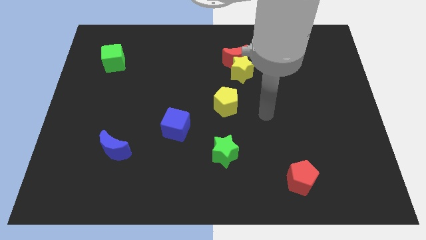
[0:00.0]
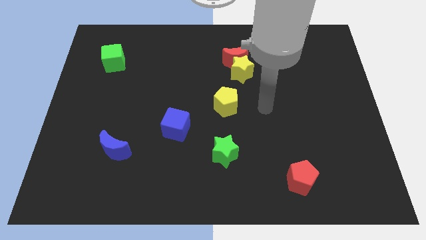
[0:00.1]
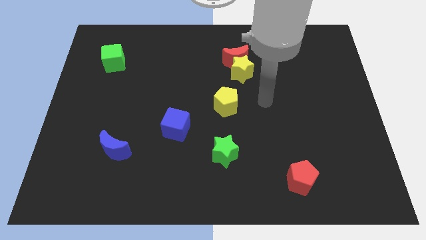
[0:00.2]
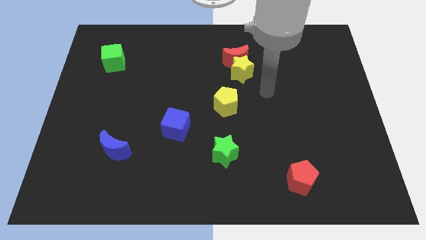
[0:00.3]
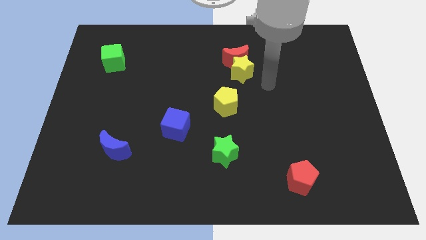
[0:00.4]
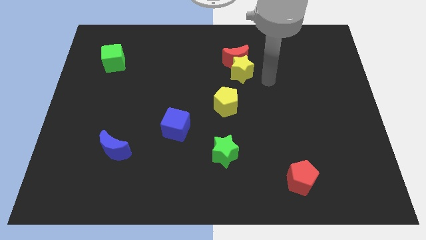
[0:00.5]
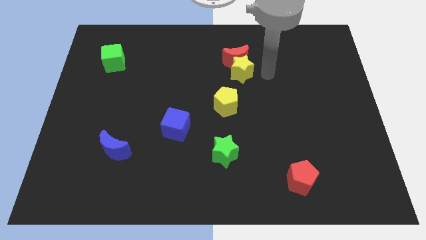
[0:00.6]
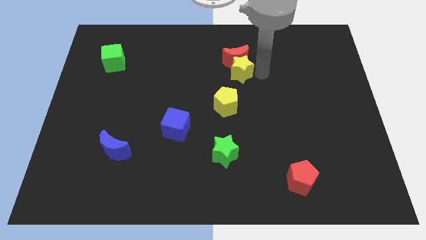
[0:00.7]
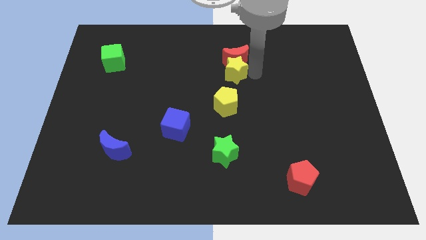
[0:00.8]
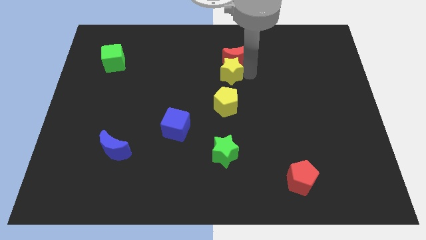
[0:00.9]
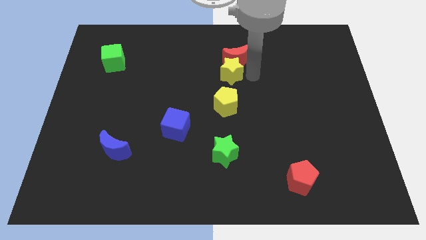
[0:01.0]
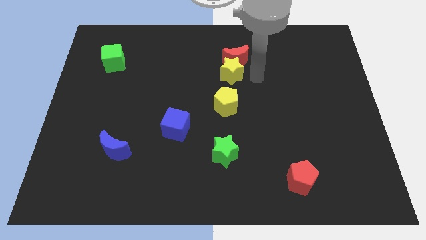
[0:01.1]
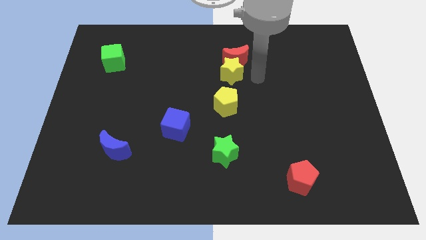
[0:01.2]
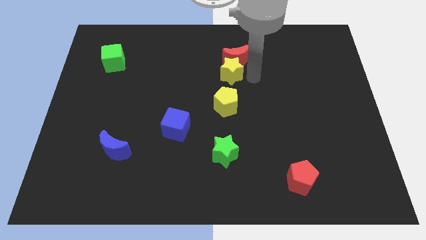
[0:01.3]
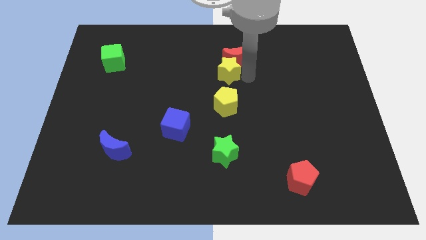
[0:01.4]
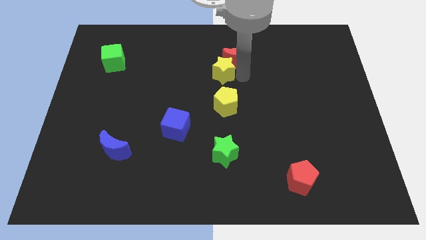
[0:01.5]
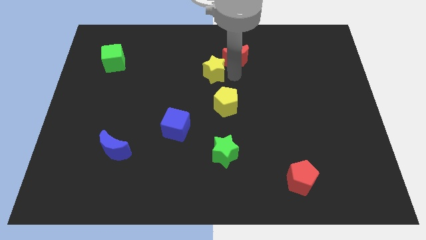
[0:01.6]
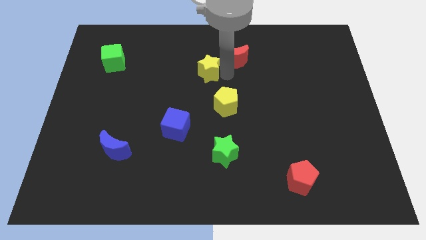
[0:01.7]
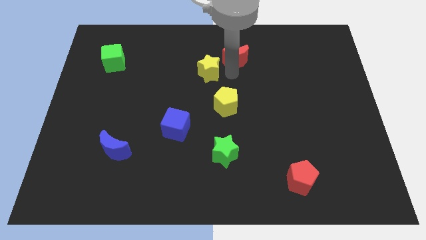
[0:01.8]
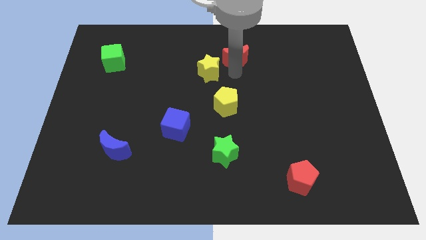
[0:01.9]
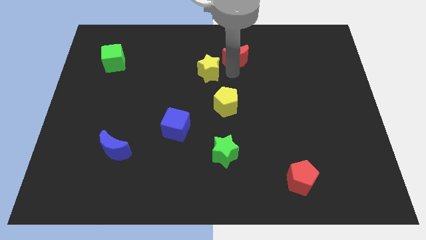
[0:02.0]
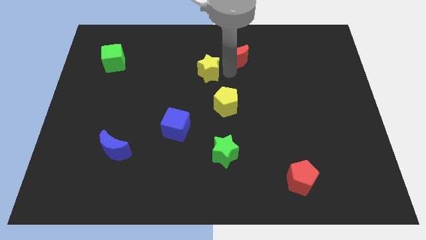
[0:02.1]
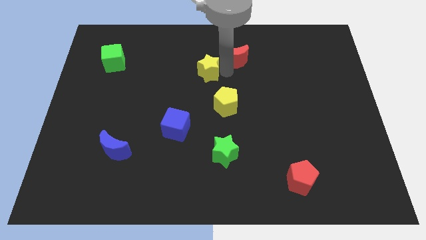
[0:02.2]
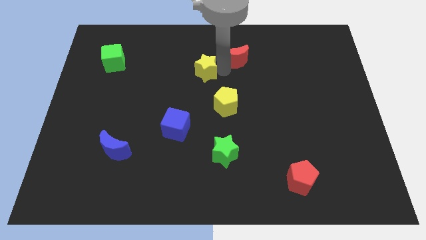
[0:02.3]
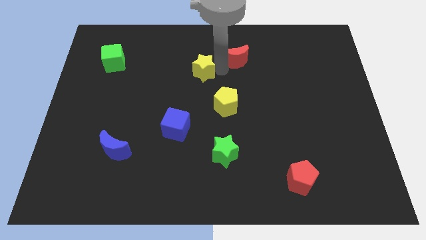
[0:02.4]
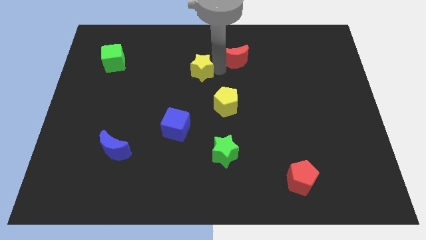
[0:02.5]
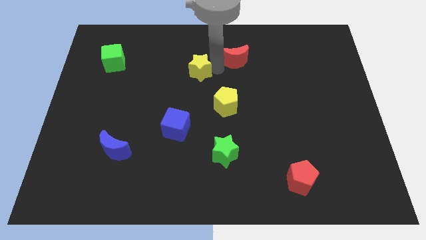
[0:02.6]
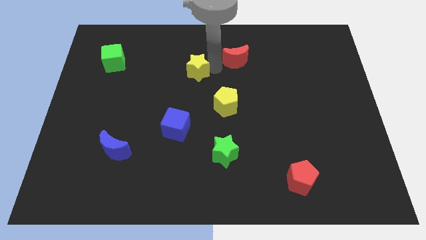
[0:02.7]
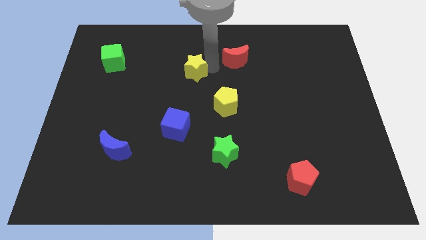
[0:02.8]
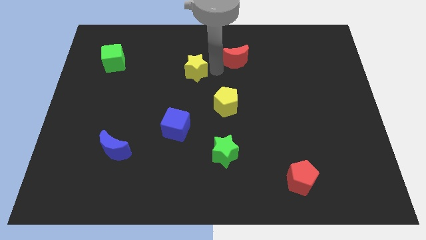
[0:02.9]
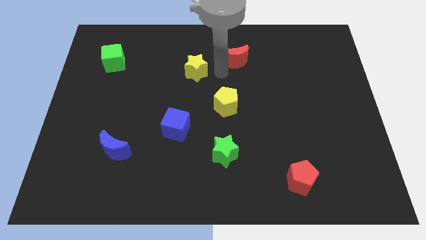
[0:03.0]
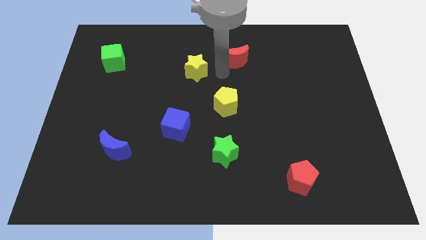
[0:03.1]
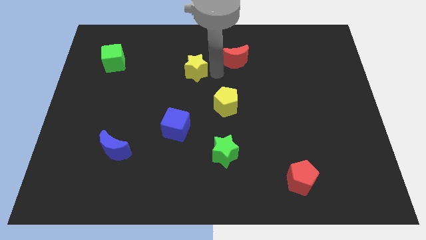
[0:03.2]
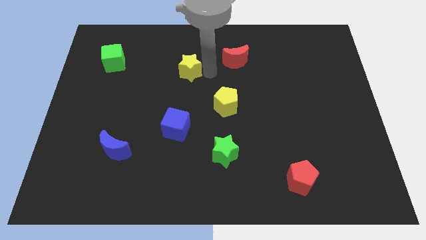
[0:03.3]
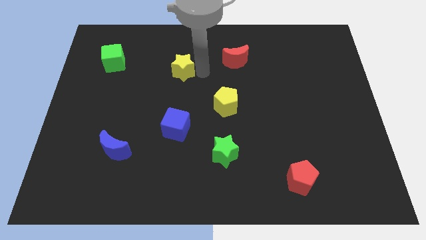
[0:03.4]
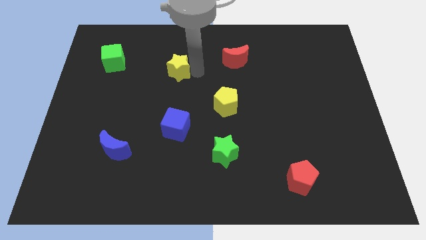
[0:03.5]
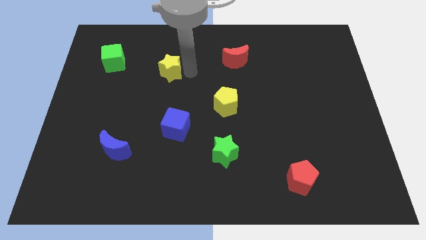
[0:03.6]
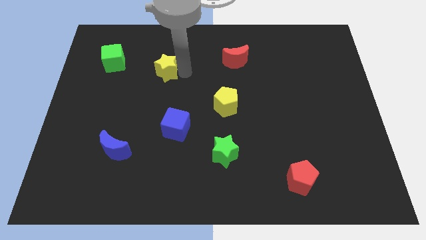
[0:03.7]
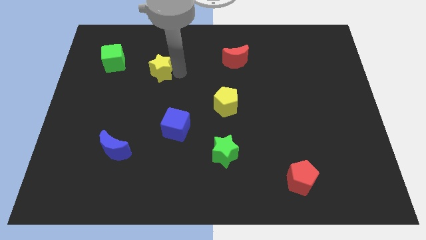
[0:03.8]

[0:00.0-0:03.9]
move the yellow star to the left

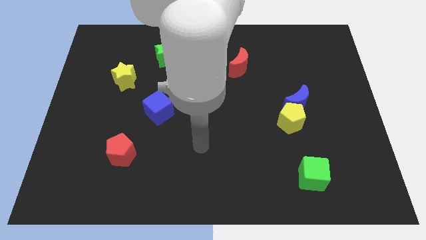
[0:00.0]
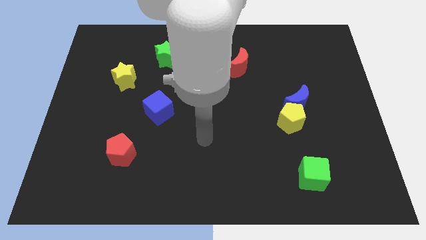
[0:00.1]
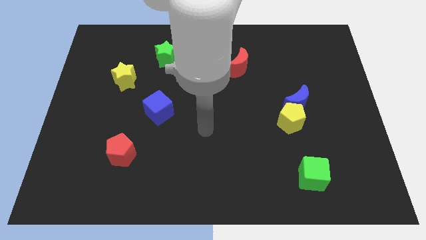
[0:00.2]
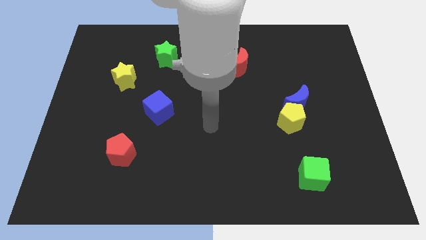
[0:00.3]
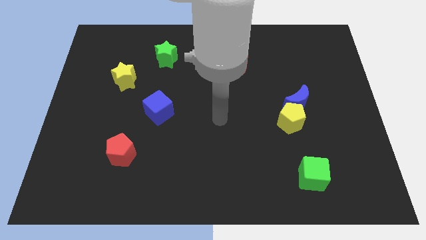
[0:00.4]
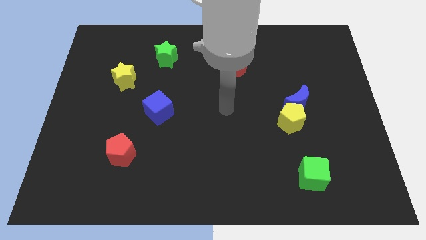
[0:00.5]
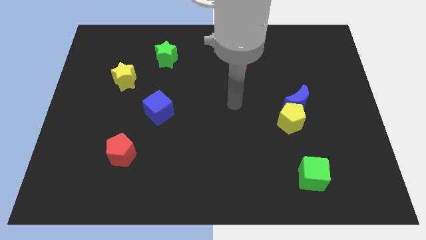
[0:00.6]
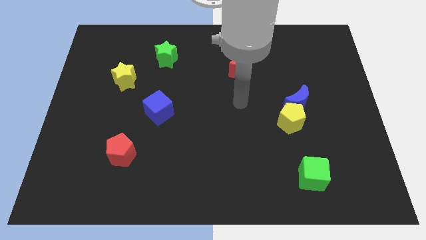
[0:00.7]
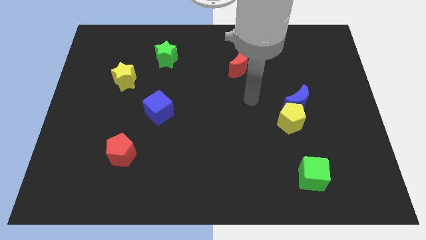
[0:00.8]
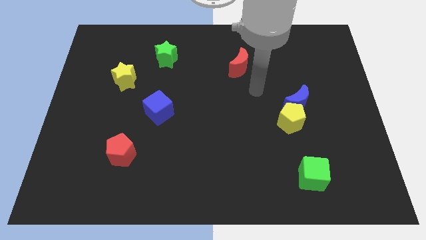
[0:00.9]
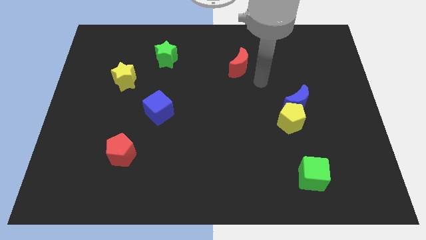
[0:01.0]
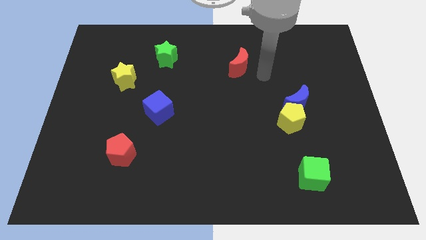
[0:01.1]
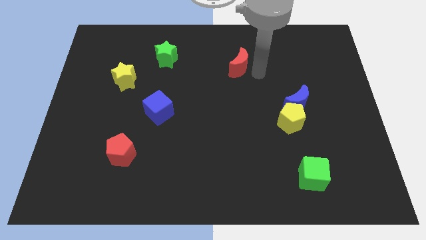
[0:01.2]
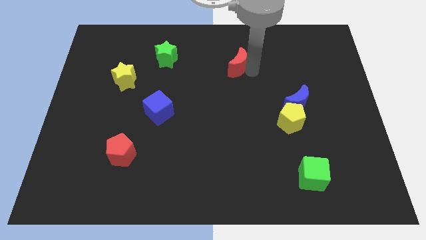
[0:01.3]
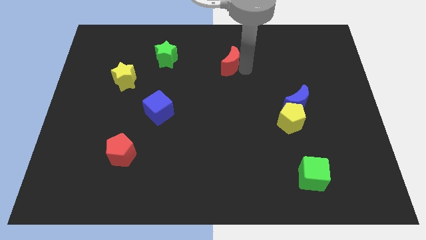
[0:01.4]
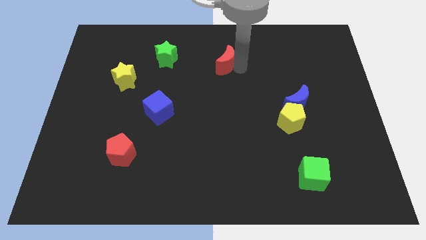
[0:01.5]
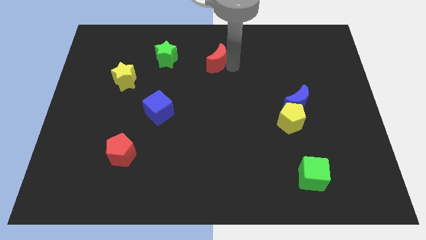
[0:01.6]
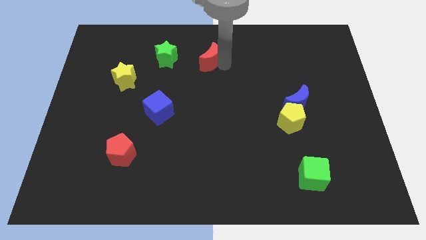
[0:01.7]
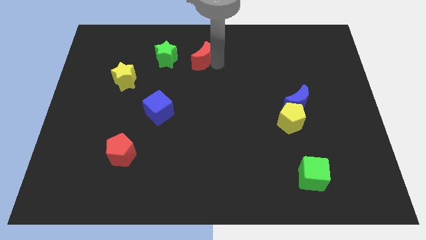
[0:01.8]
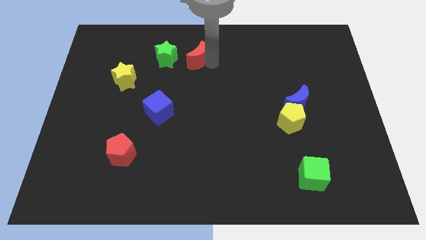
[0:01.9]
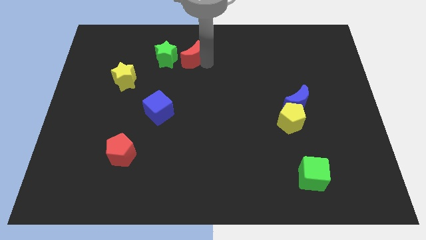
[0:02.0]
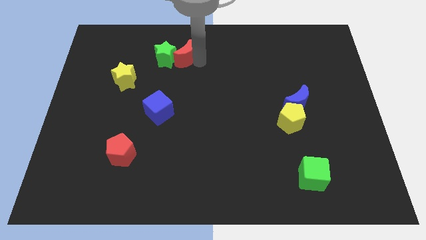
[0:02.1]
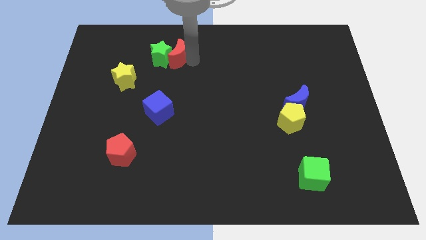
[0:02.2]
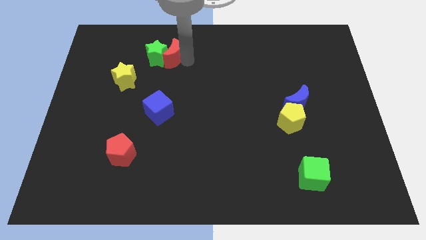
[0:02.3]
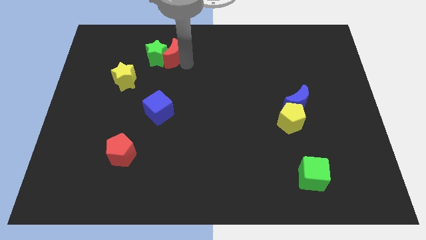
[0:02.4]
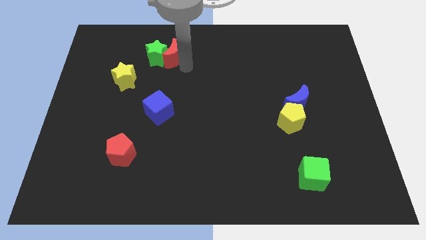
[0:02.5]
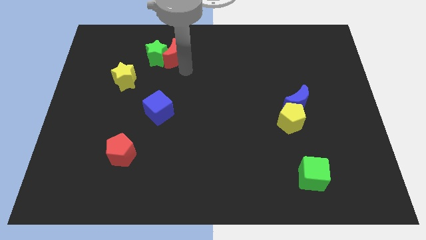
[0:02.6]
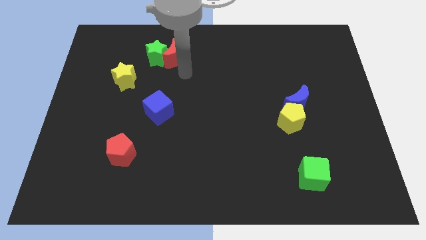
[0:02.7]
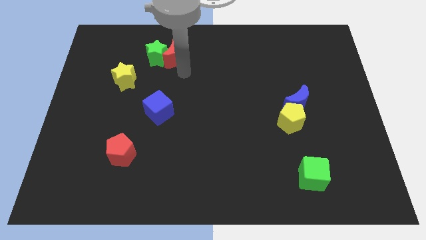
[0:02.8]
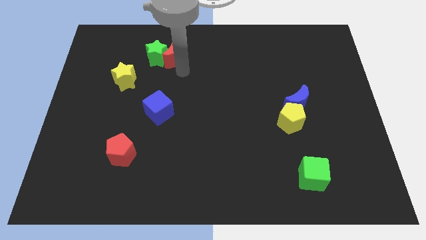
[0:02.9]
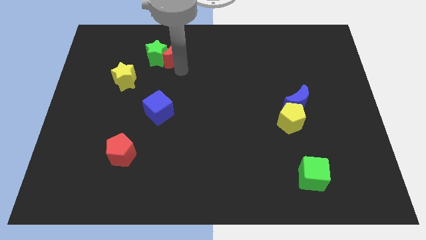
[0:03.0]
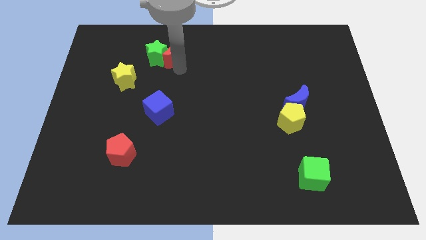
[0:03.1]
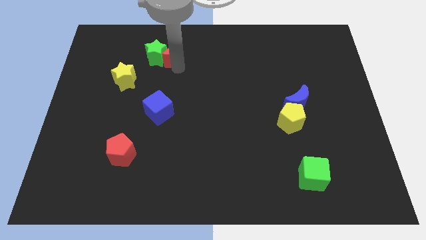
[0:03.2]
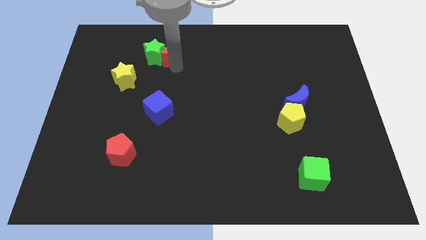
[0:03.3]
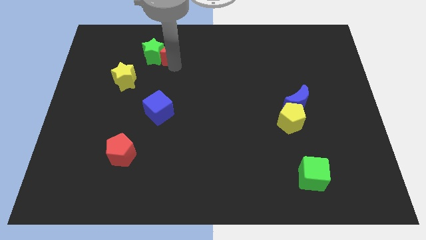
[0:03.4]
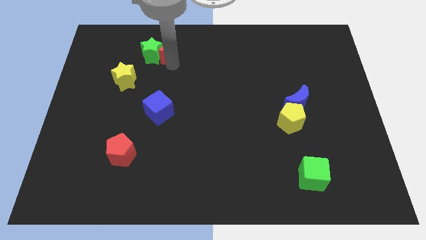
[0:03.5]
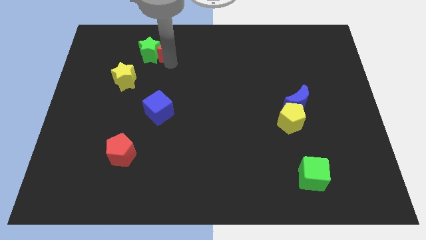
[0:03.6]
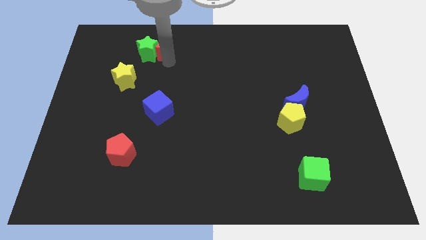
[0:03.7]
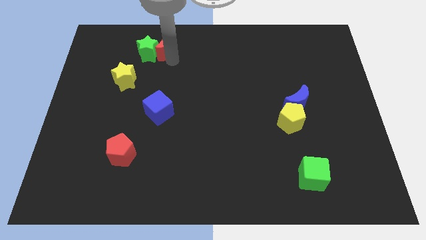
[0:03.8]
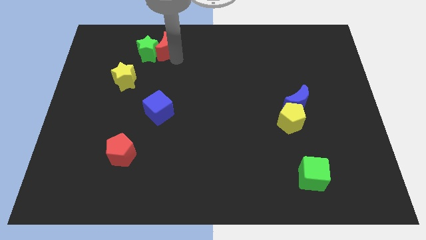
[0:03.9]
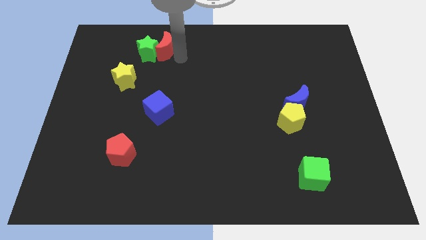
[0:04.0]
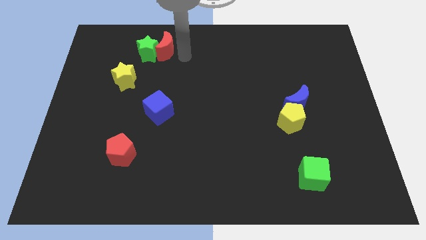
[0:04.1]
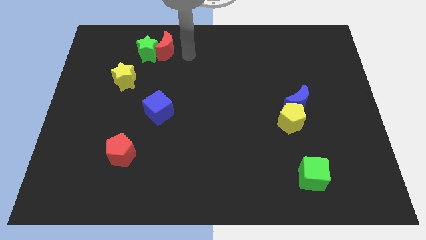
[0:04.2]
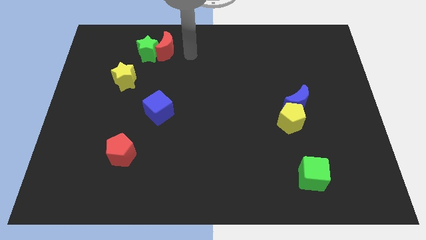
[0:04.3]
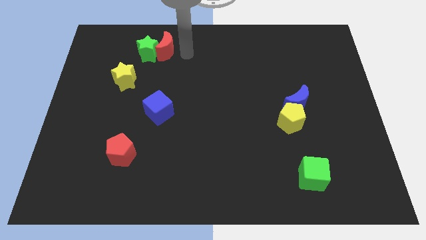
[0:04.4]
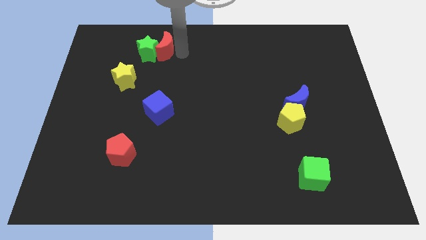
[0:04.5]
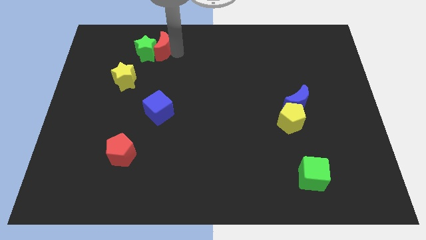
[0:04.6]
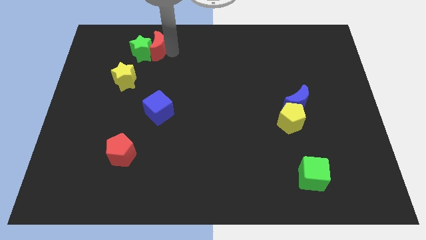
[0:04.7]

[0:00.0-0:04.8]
move the red moon to the left
